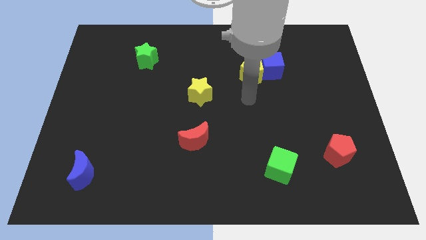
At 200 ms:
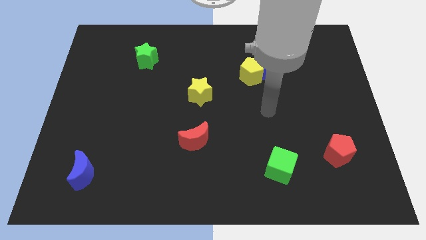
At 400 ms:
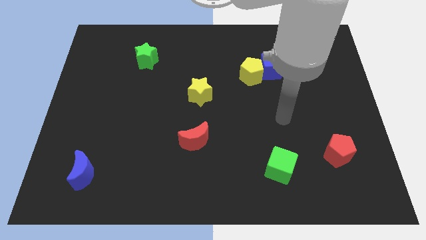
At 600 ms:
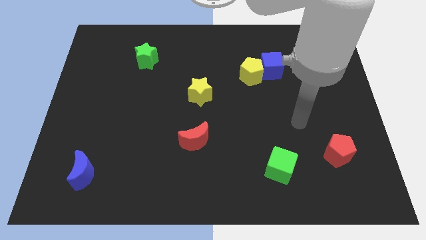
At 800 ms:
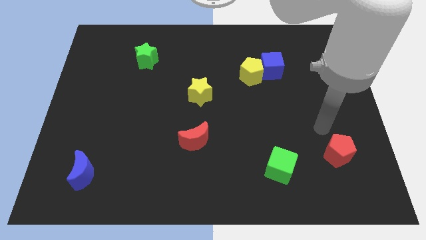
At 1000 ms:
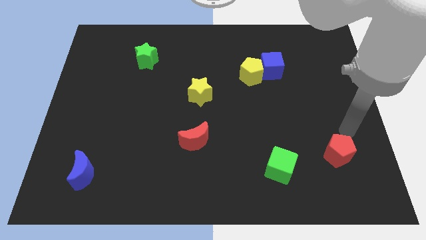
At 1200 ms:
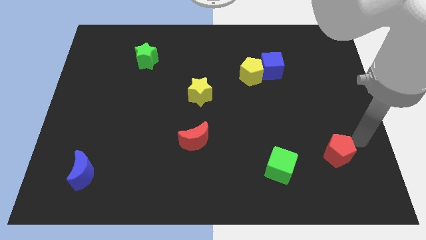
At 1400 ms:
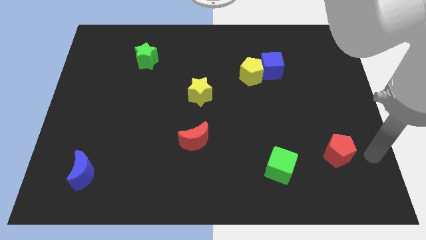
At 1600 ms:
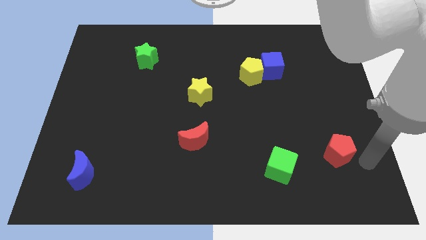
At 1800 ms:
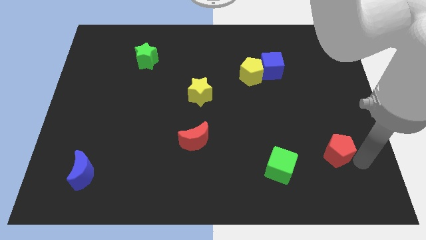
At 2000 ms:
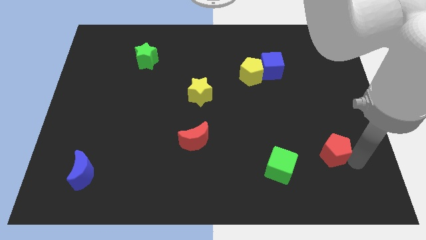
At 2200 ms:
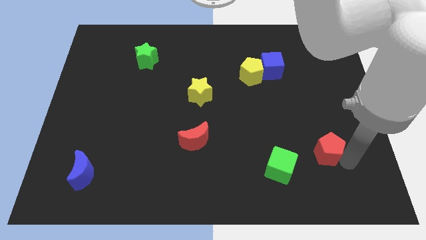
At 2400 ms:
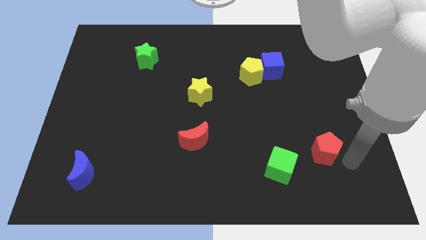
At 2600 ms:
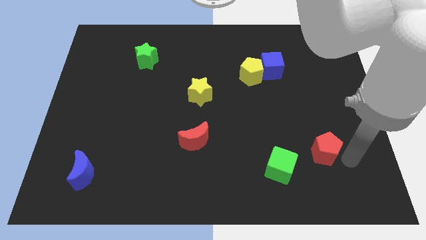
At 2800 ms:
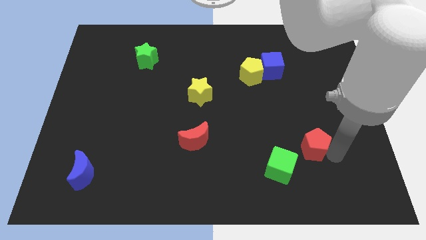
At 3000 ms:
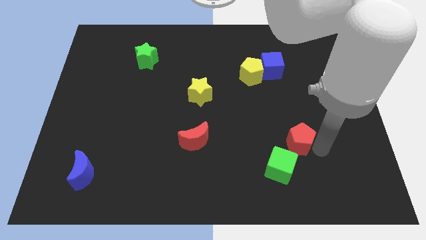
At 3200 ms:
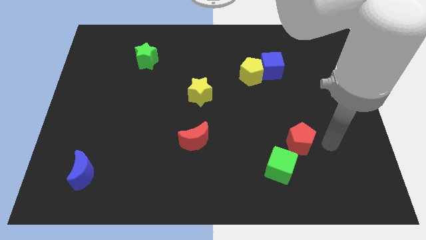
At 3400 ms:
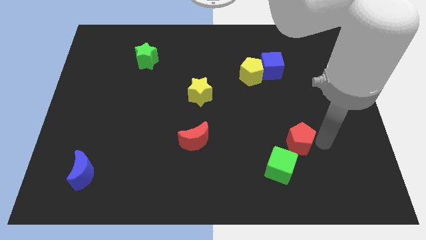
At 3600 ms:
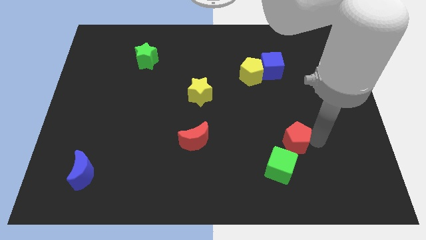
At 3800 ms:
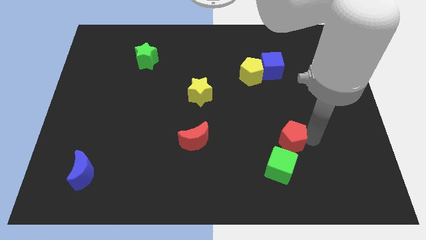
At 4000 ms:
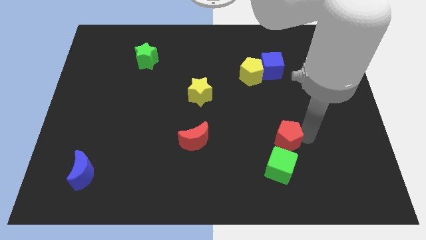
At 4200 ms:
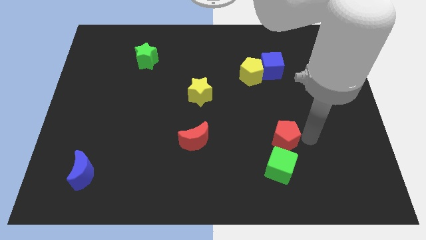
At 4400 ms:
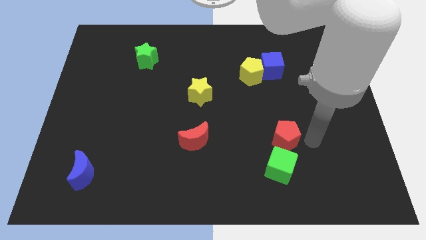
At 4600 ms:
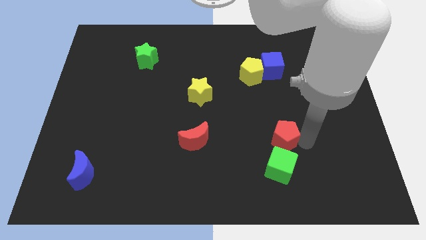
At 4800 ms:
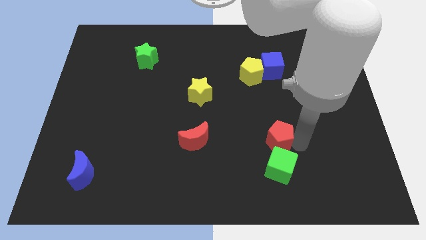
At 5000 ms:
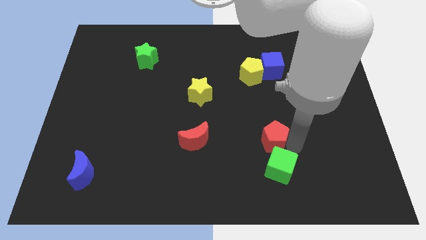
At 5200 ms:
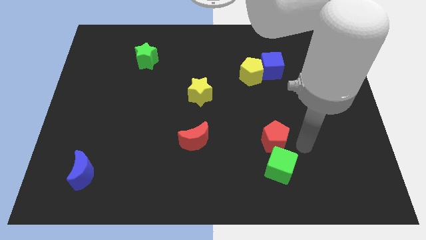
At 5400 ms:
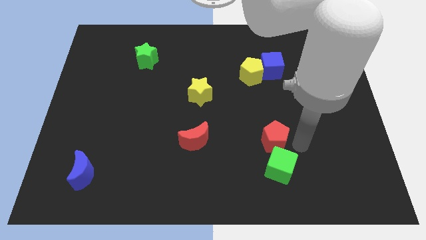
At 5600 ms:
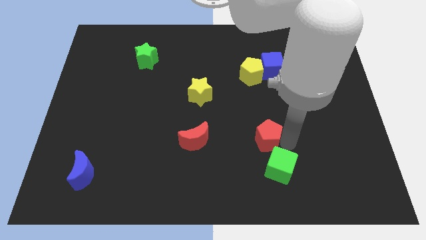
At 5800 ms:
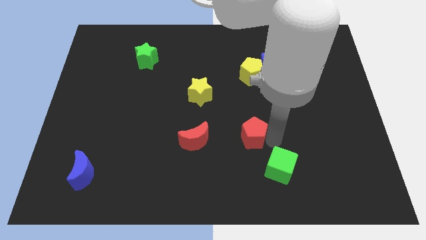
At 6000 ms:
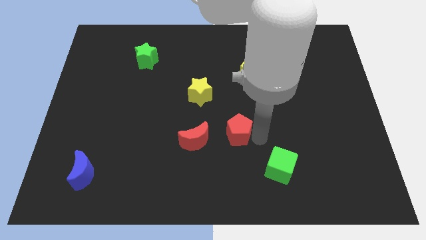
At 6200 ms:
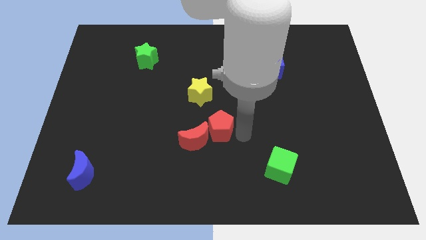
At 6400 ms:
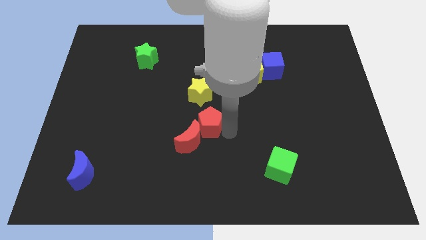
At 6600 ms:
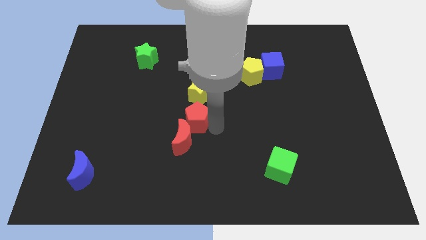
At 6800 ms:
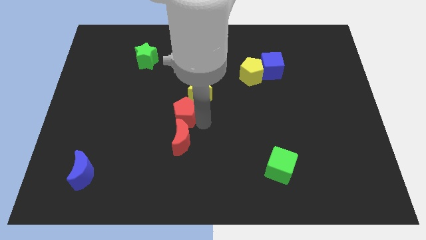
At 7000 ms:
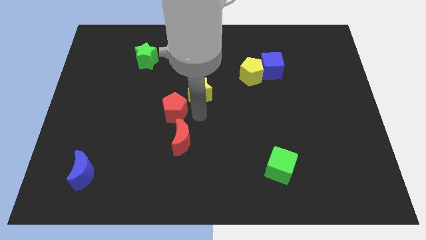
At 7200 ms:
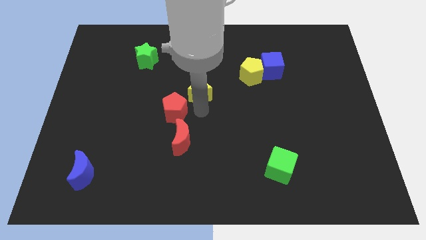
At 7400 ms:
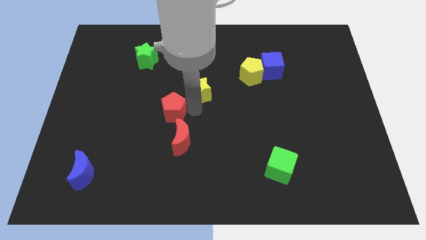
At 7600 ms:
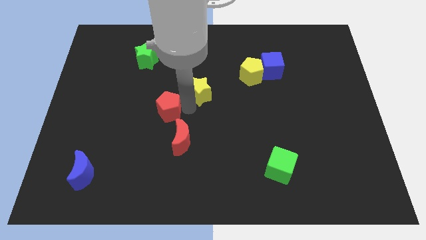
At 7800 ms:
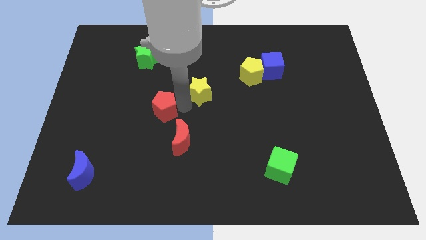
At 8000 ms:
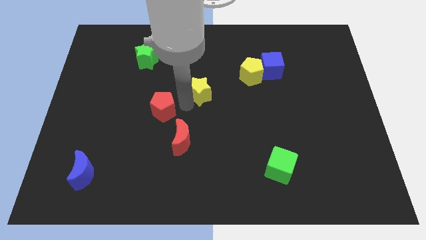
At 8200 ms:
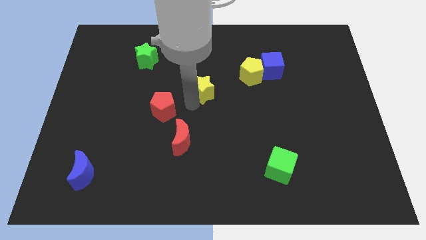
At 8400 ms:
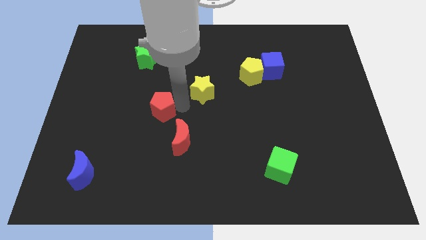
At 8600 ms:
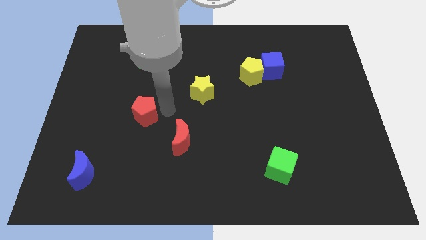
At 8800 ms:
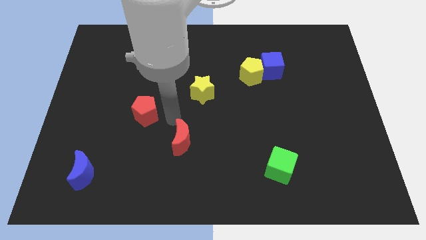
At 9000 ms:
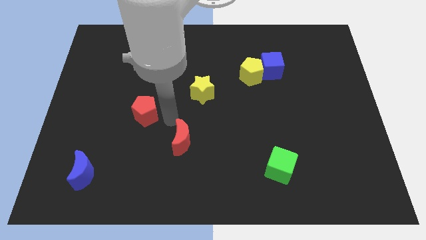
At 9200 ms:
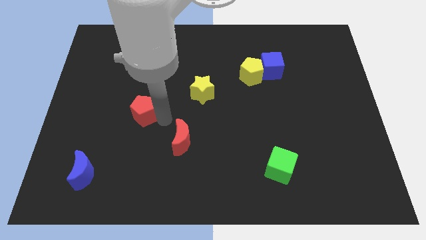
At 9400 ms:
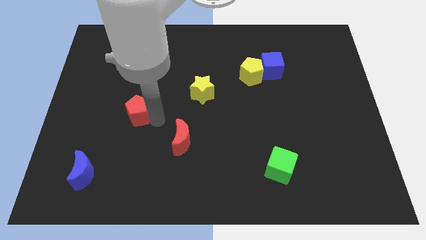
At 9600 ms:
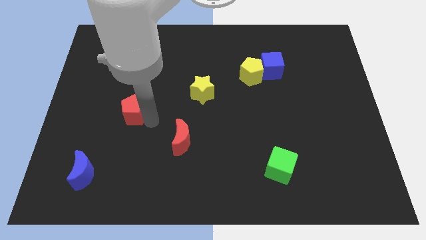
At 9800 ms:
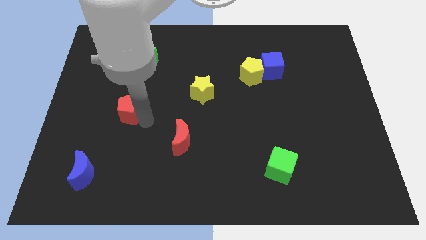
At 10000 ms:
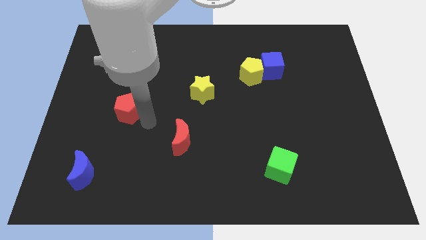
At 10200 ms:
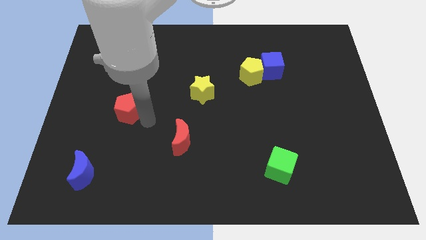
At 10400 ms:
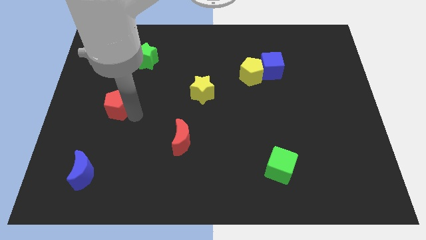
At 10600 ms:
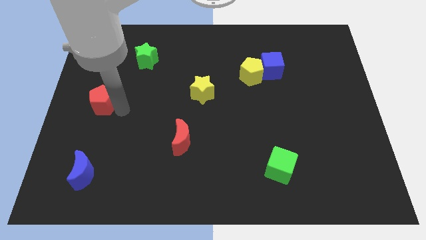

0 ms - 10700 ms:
slide the red pentagon to the left side of the board

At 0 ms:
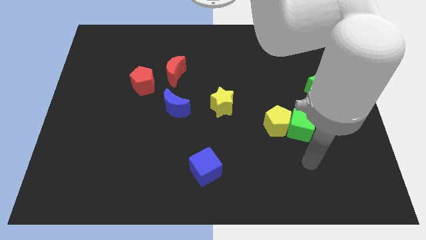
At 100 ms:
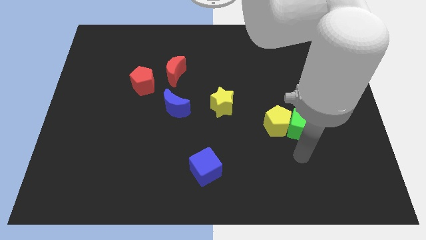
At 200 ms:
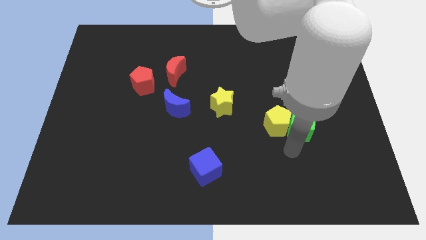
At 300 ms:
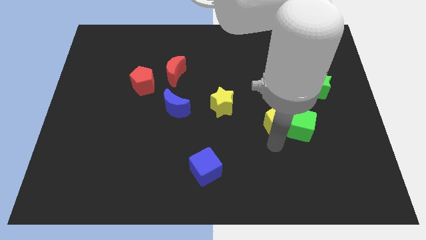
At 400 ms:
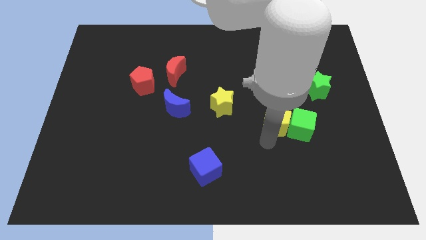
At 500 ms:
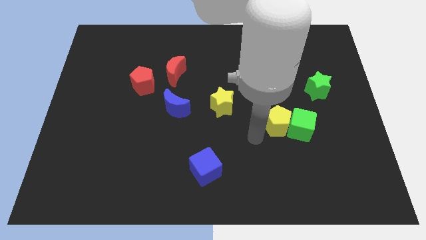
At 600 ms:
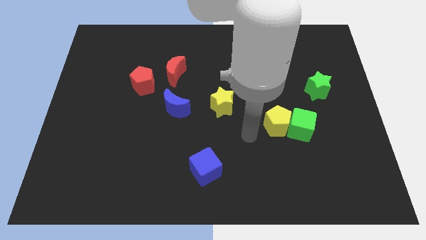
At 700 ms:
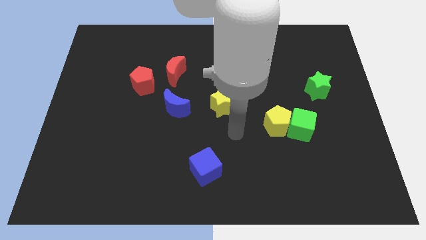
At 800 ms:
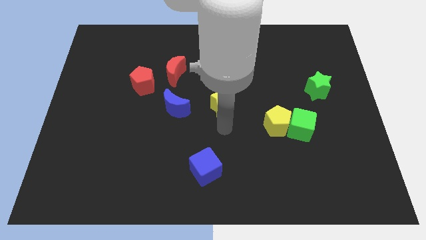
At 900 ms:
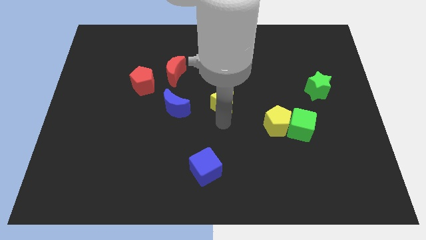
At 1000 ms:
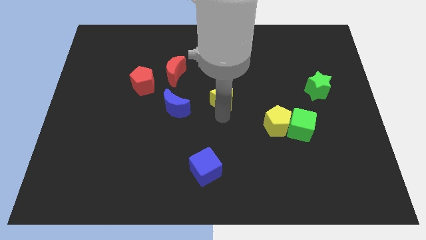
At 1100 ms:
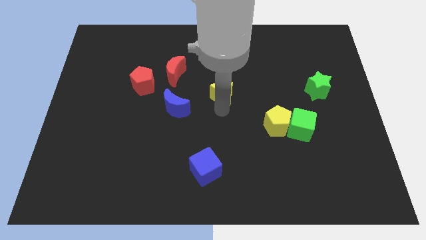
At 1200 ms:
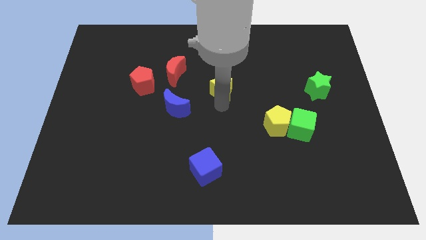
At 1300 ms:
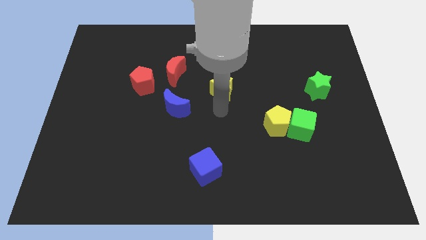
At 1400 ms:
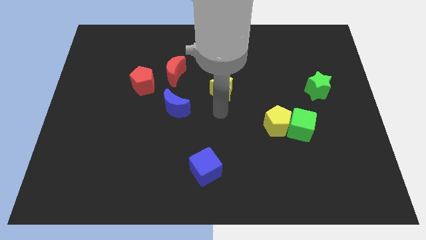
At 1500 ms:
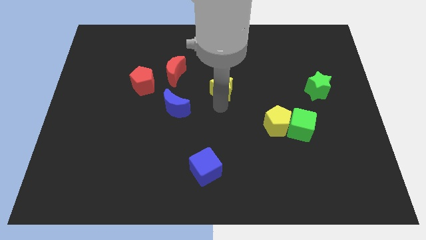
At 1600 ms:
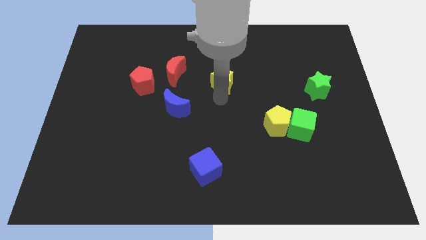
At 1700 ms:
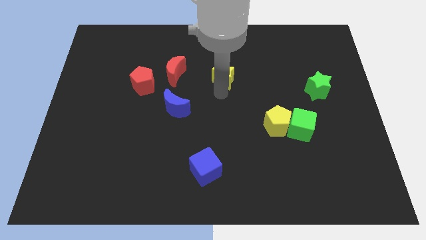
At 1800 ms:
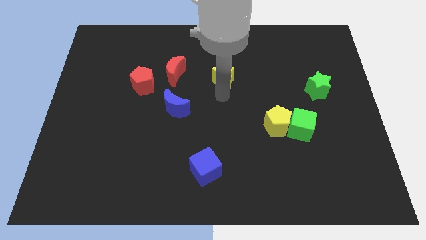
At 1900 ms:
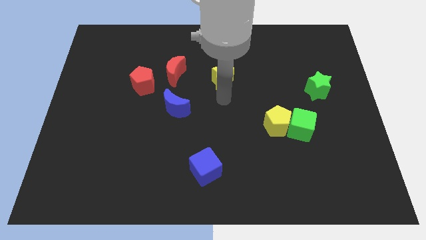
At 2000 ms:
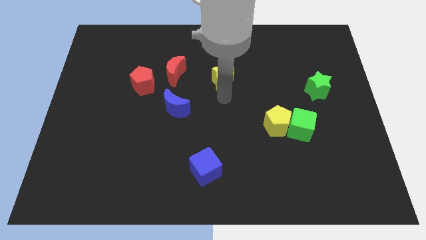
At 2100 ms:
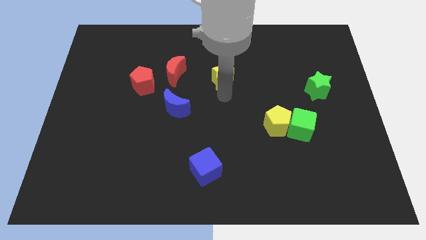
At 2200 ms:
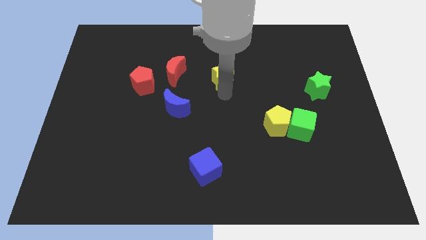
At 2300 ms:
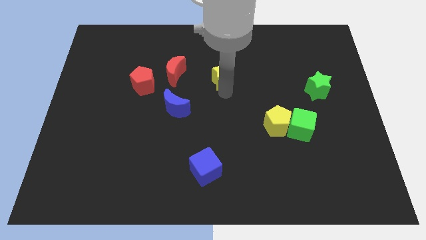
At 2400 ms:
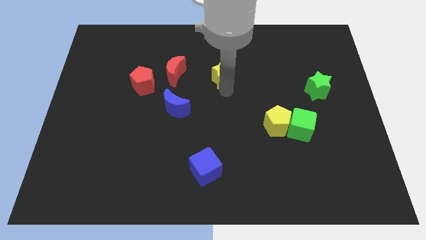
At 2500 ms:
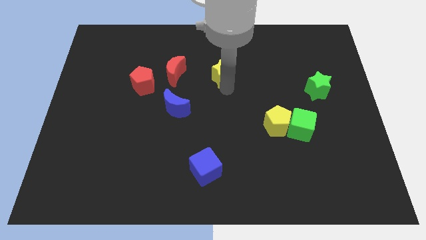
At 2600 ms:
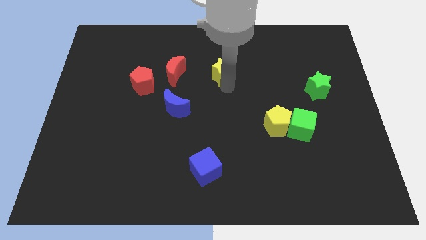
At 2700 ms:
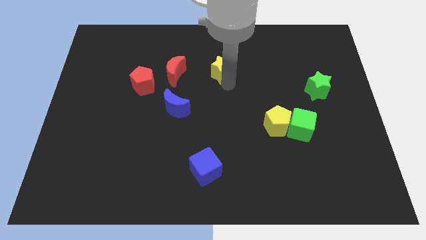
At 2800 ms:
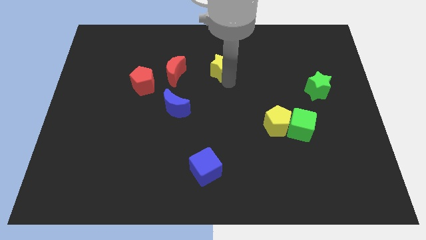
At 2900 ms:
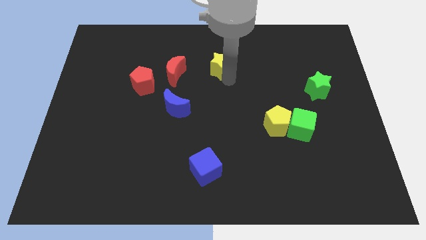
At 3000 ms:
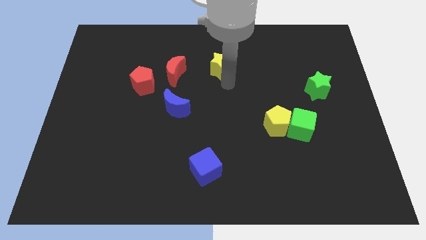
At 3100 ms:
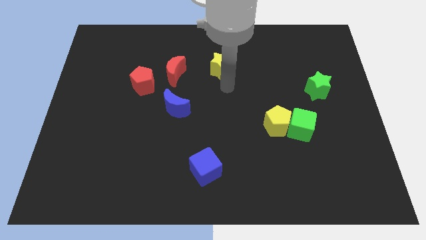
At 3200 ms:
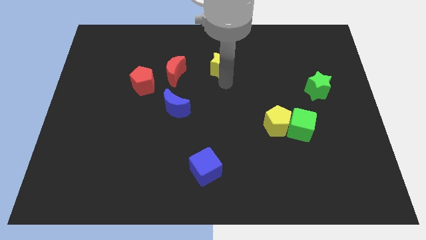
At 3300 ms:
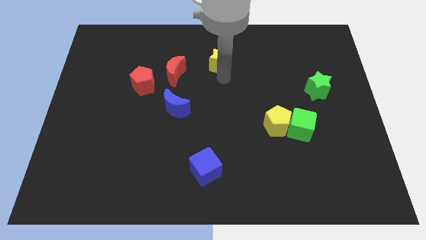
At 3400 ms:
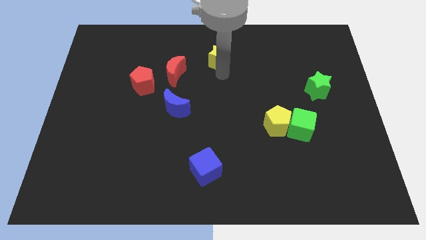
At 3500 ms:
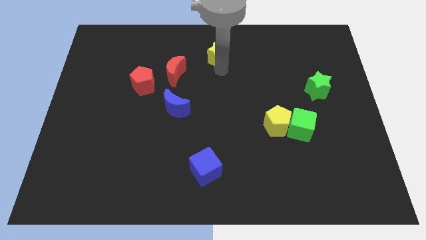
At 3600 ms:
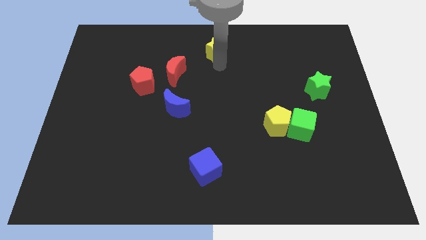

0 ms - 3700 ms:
push the yellow star to the top side
